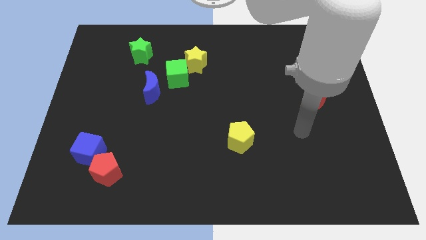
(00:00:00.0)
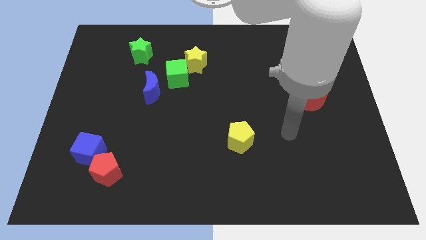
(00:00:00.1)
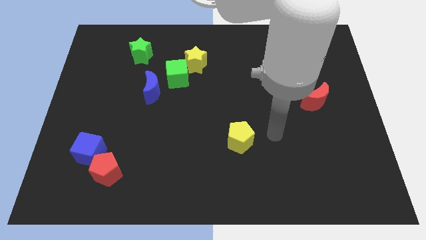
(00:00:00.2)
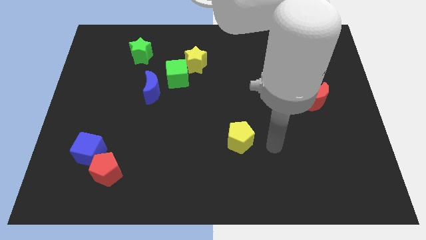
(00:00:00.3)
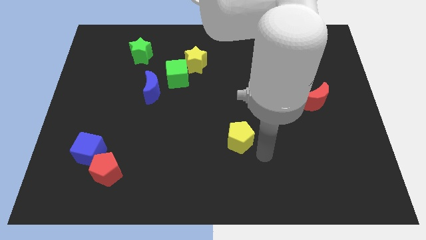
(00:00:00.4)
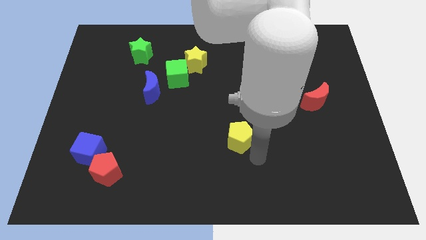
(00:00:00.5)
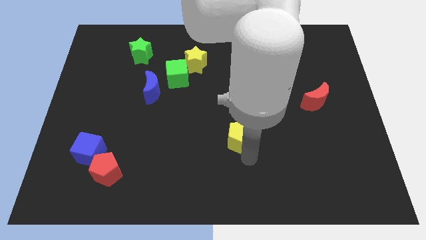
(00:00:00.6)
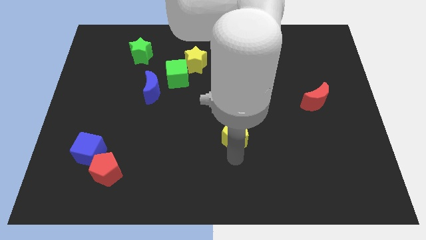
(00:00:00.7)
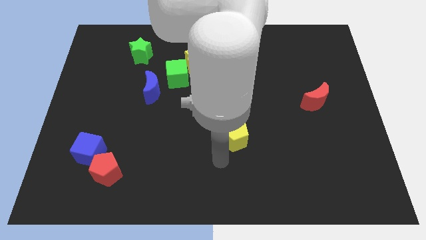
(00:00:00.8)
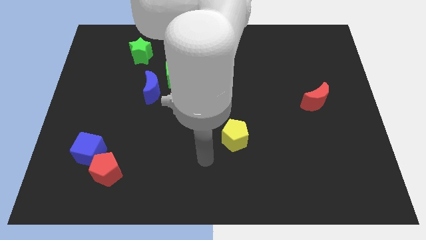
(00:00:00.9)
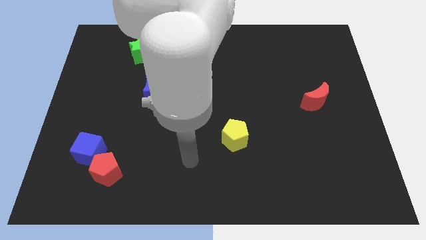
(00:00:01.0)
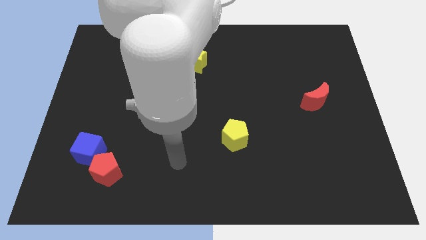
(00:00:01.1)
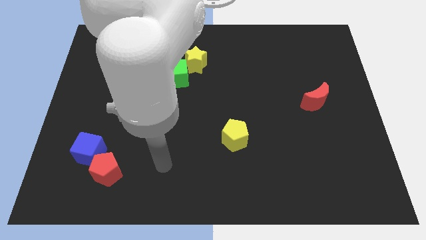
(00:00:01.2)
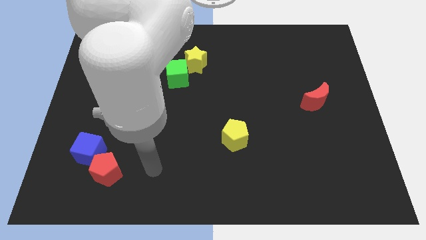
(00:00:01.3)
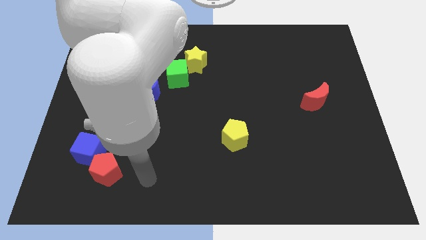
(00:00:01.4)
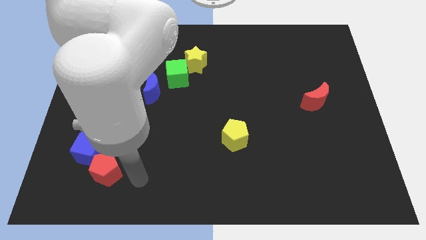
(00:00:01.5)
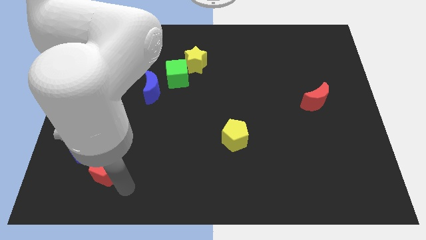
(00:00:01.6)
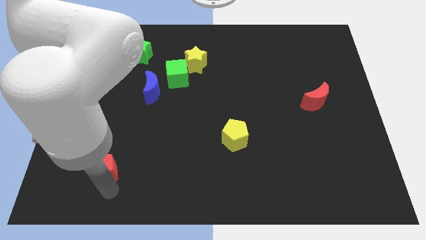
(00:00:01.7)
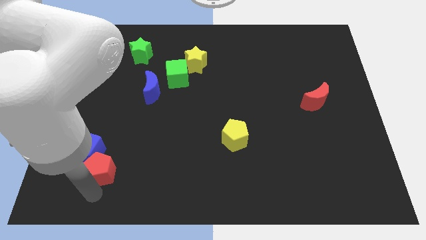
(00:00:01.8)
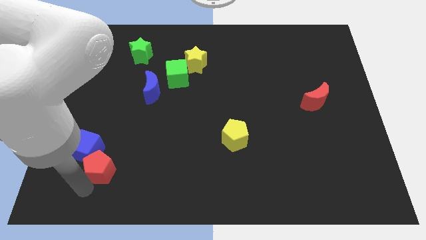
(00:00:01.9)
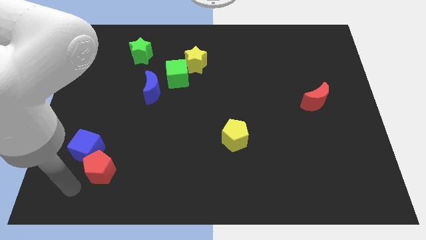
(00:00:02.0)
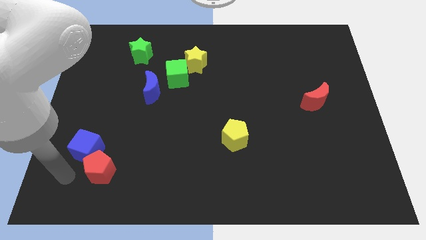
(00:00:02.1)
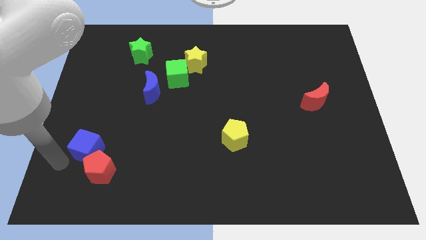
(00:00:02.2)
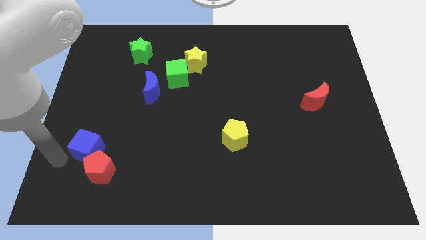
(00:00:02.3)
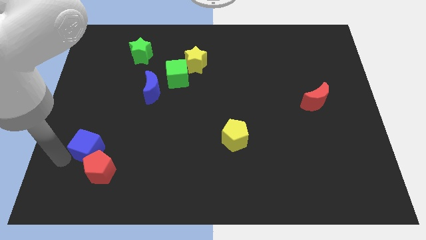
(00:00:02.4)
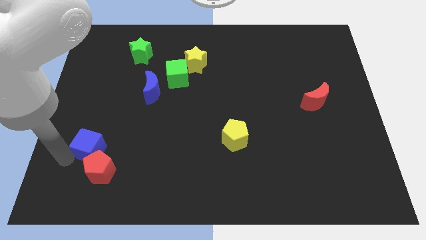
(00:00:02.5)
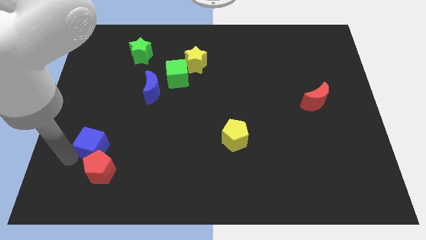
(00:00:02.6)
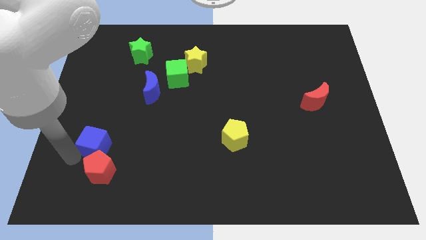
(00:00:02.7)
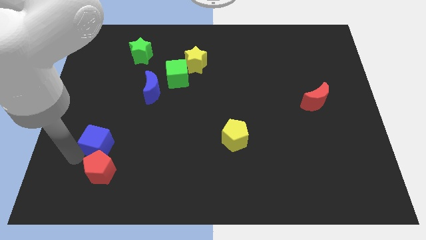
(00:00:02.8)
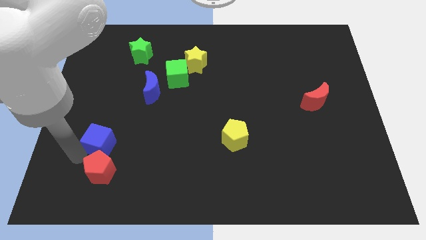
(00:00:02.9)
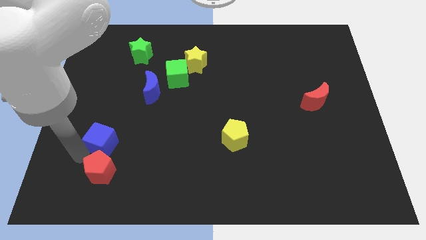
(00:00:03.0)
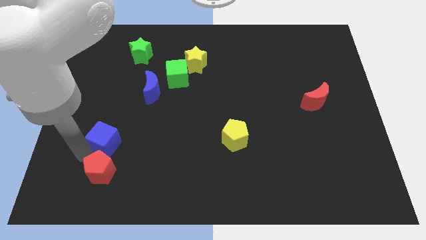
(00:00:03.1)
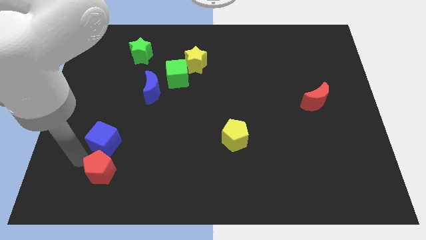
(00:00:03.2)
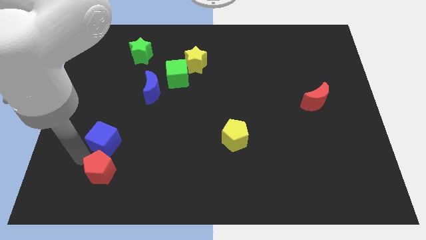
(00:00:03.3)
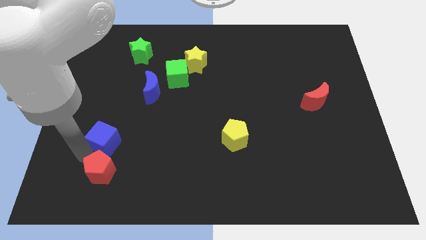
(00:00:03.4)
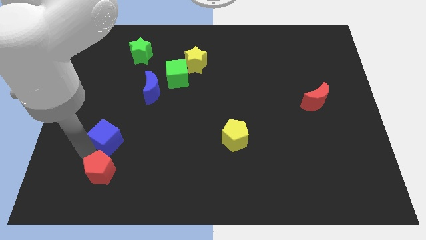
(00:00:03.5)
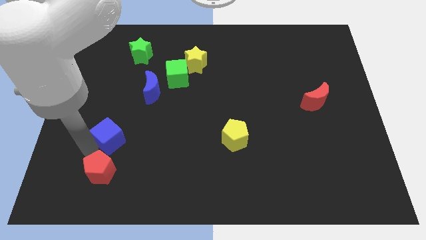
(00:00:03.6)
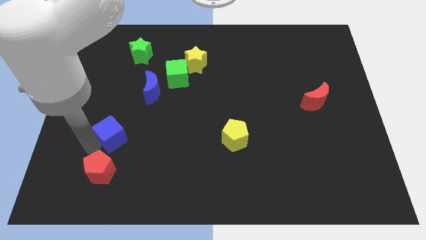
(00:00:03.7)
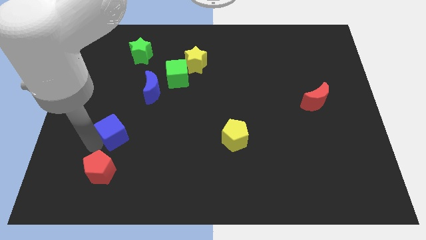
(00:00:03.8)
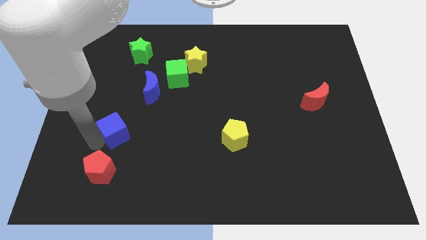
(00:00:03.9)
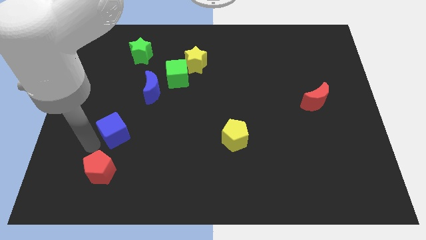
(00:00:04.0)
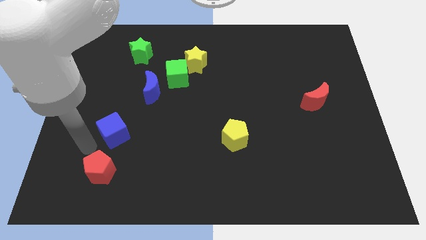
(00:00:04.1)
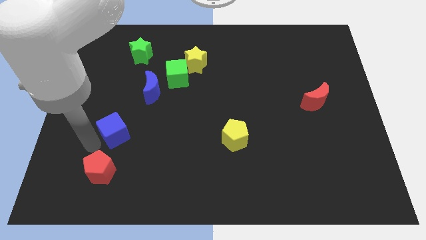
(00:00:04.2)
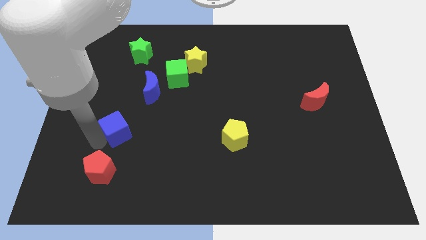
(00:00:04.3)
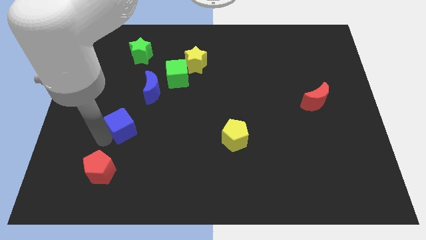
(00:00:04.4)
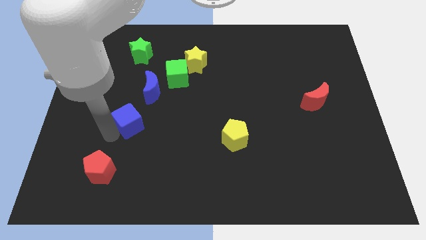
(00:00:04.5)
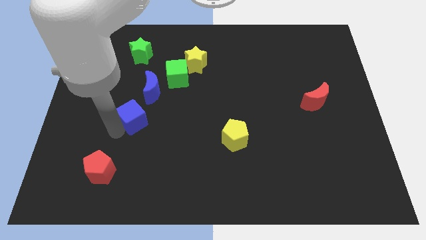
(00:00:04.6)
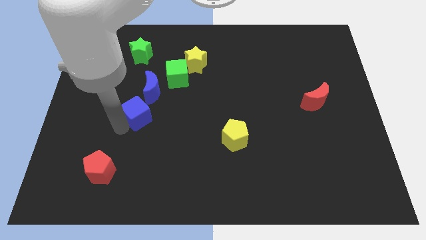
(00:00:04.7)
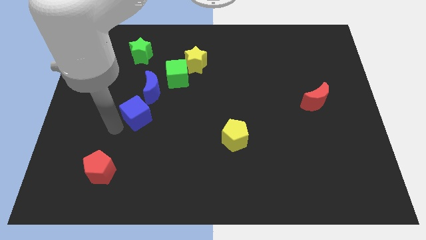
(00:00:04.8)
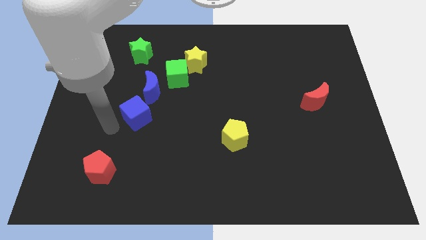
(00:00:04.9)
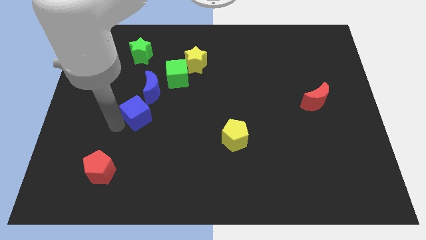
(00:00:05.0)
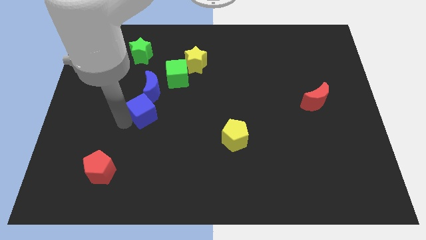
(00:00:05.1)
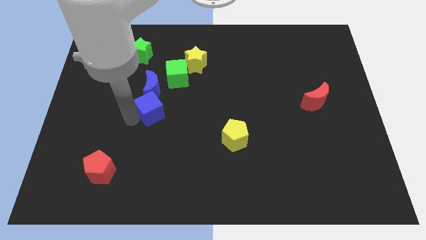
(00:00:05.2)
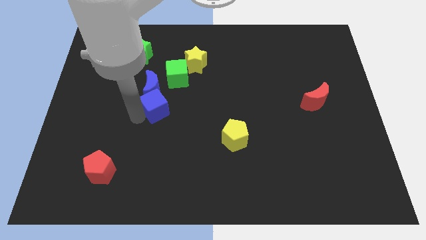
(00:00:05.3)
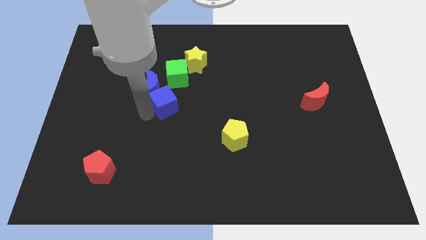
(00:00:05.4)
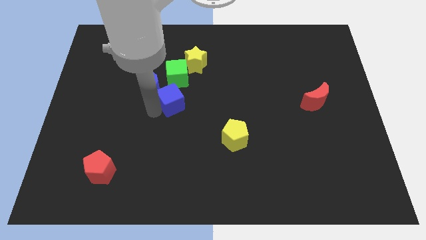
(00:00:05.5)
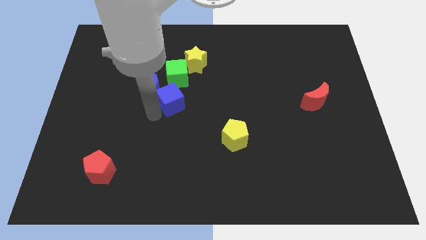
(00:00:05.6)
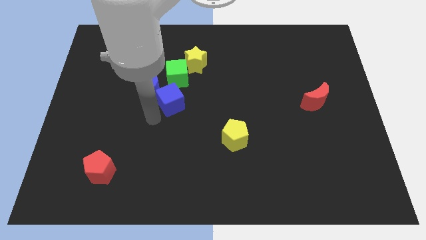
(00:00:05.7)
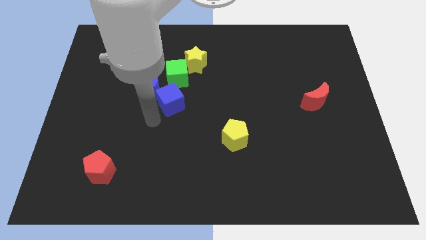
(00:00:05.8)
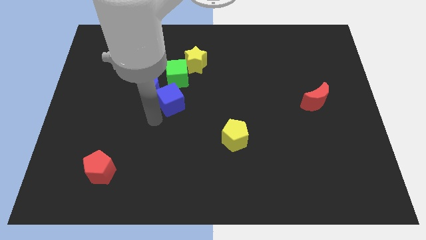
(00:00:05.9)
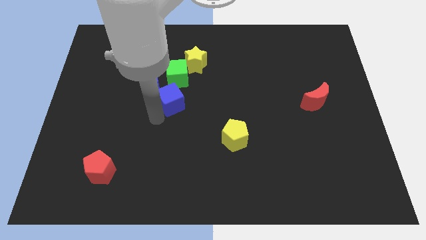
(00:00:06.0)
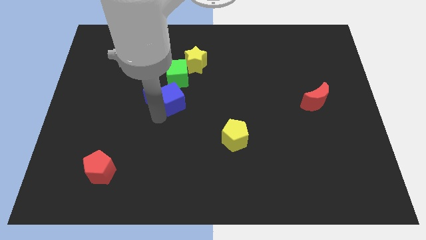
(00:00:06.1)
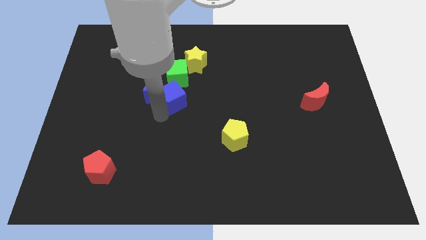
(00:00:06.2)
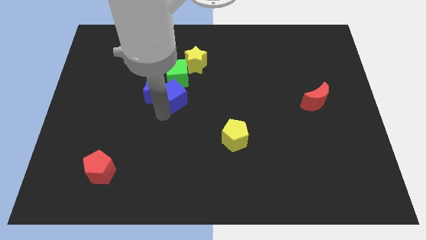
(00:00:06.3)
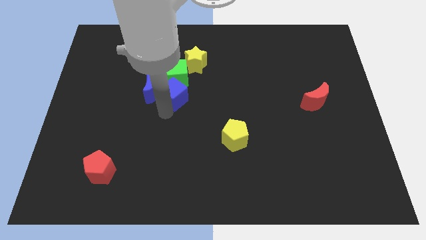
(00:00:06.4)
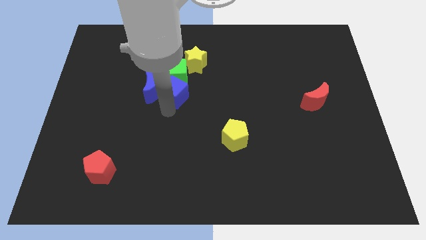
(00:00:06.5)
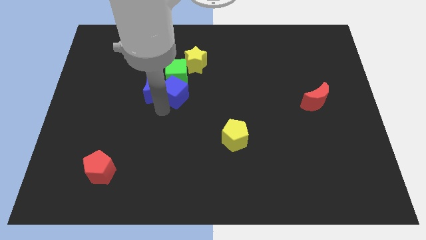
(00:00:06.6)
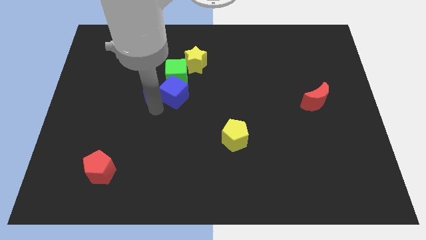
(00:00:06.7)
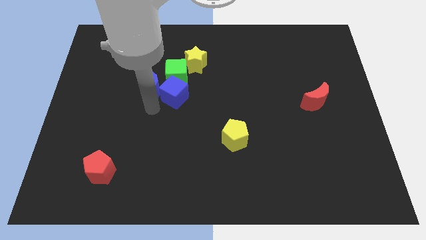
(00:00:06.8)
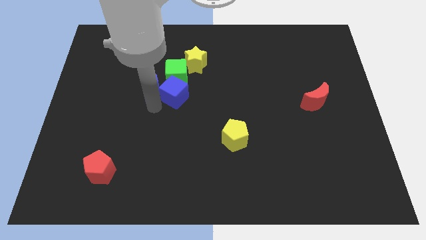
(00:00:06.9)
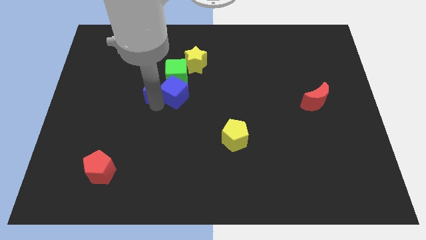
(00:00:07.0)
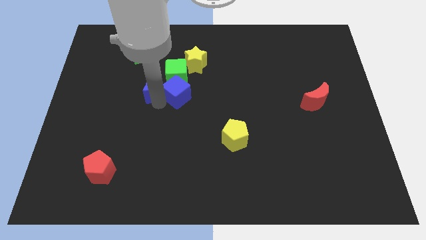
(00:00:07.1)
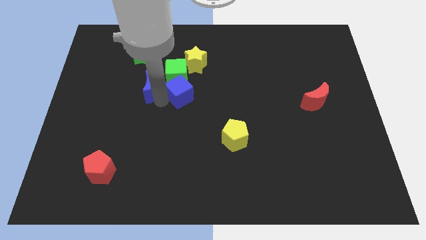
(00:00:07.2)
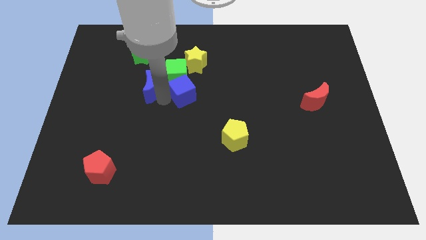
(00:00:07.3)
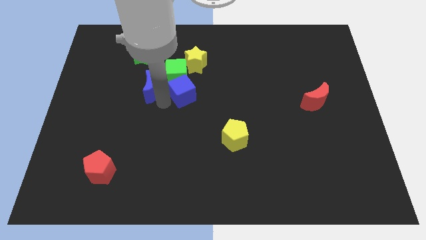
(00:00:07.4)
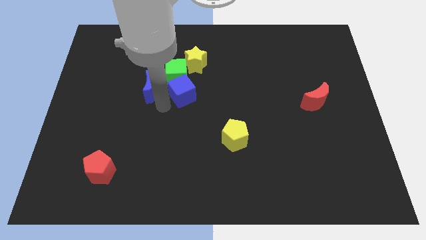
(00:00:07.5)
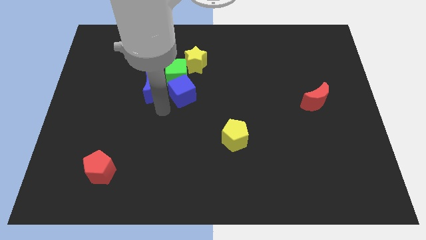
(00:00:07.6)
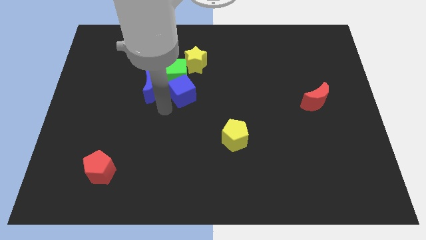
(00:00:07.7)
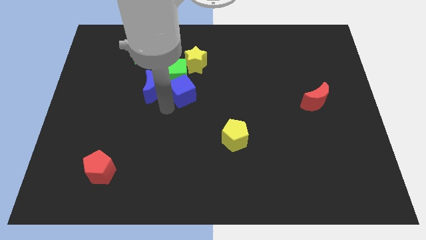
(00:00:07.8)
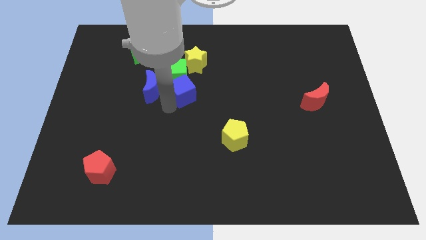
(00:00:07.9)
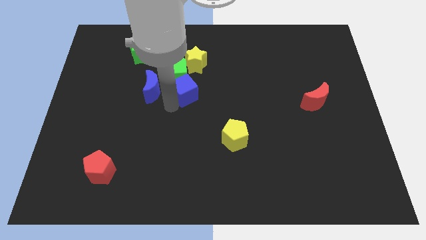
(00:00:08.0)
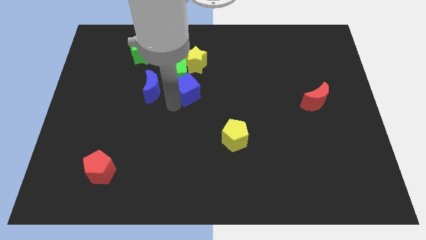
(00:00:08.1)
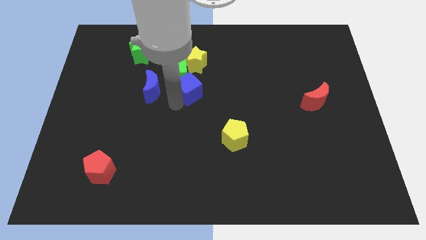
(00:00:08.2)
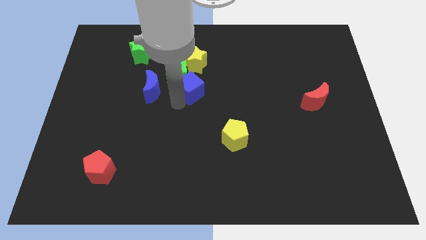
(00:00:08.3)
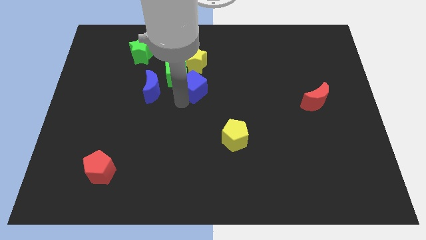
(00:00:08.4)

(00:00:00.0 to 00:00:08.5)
move the blue cube to the right of the green cube
